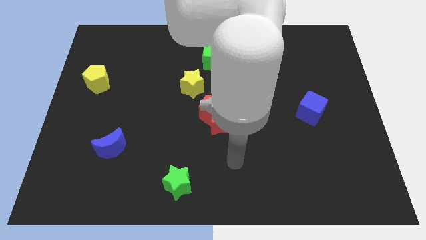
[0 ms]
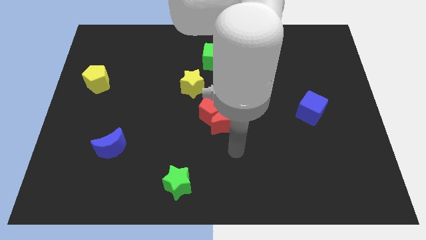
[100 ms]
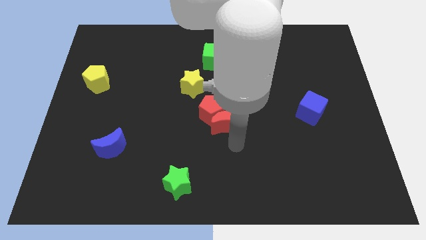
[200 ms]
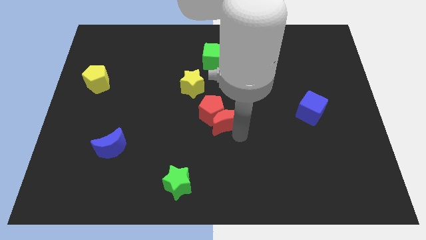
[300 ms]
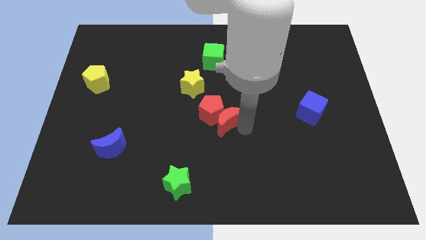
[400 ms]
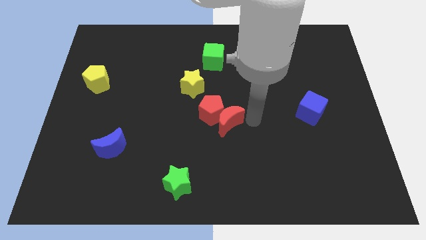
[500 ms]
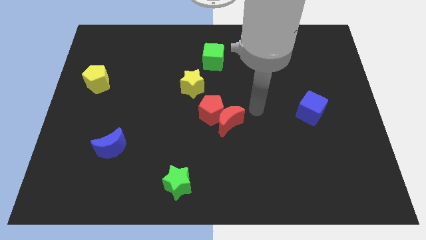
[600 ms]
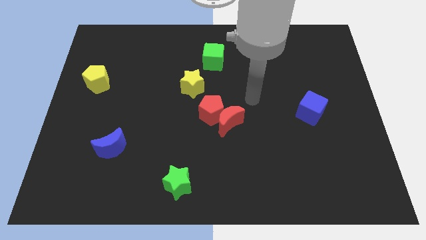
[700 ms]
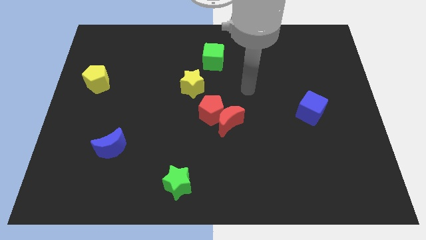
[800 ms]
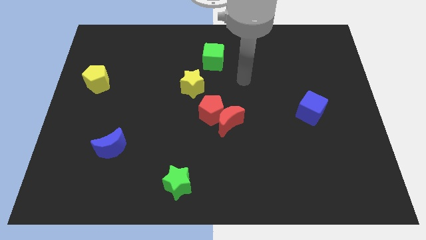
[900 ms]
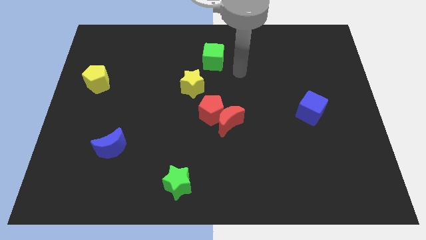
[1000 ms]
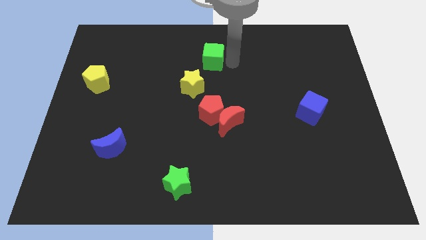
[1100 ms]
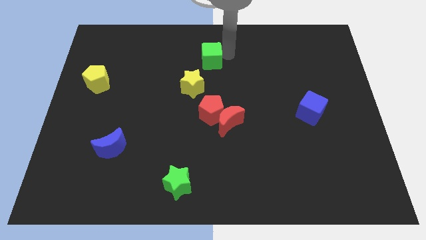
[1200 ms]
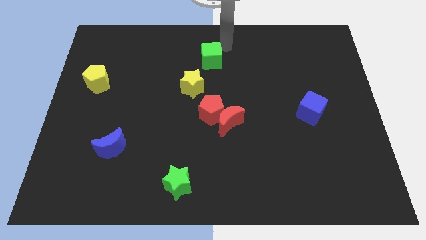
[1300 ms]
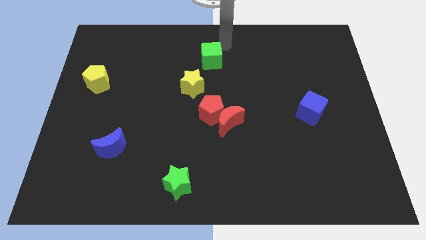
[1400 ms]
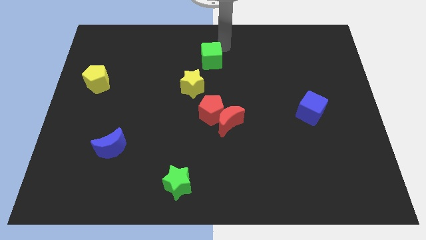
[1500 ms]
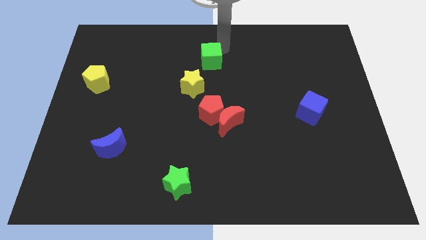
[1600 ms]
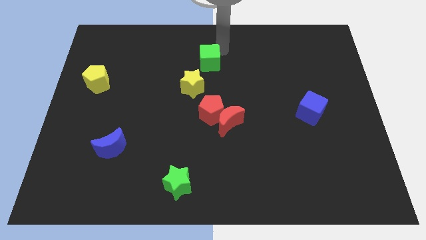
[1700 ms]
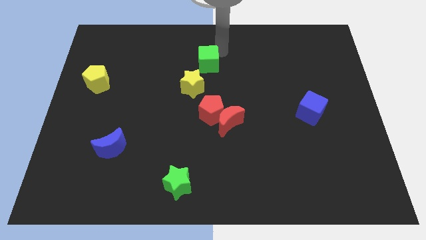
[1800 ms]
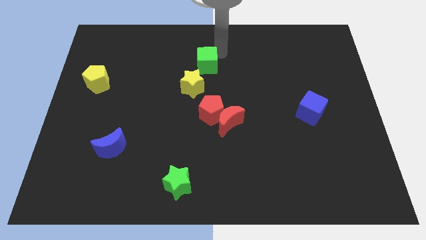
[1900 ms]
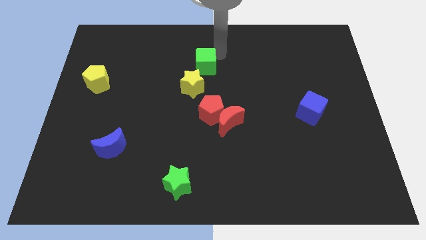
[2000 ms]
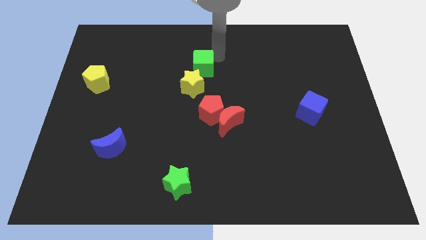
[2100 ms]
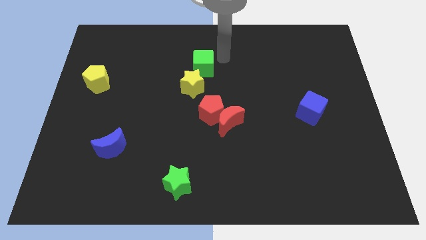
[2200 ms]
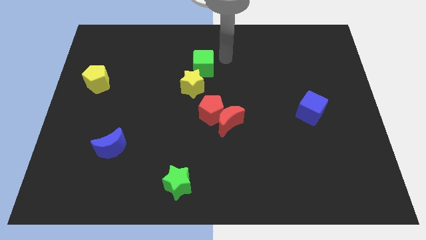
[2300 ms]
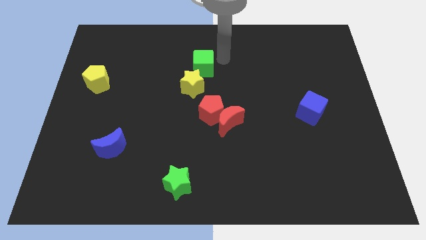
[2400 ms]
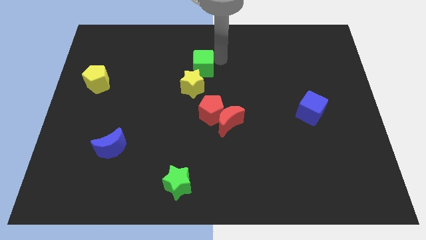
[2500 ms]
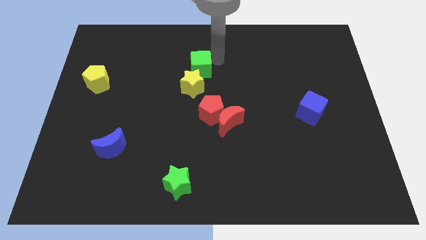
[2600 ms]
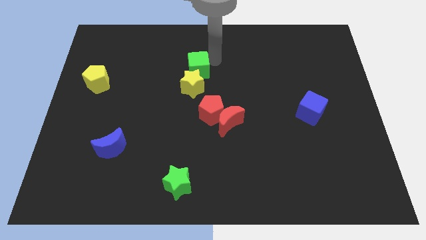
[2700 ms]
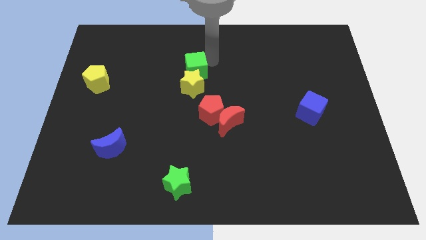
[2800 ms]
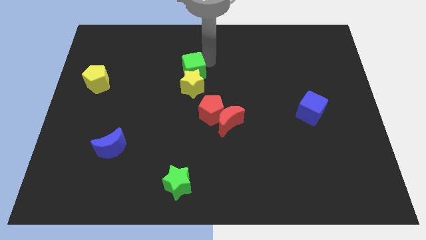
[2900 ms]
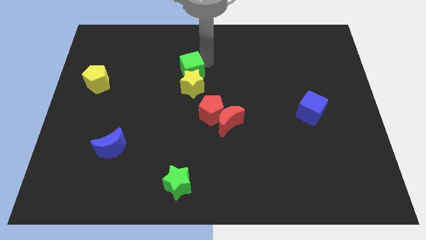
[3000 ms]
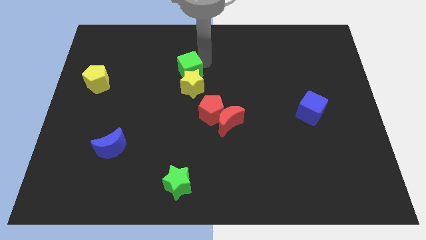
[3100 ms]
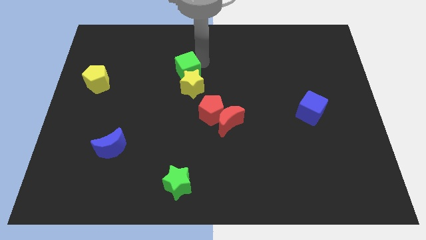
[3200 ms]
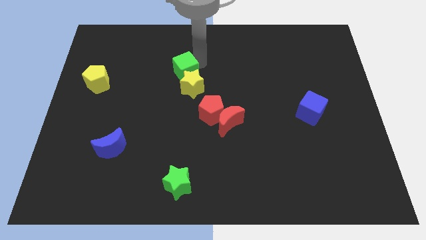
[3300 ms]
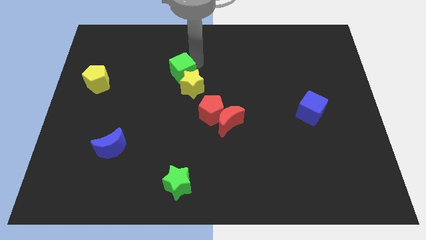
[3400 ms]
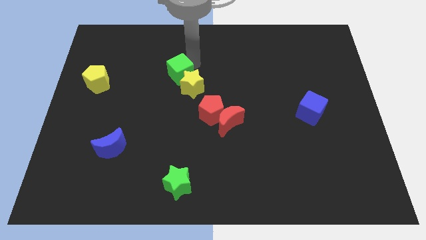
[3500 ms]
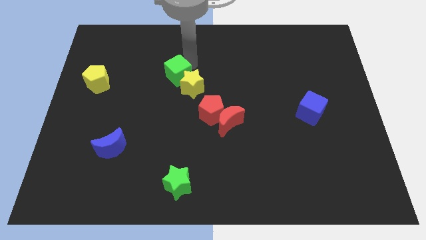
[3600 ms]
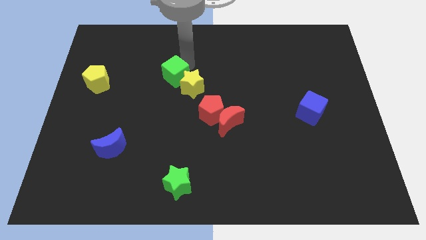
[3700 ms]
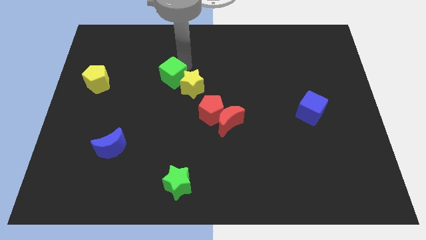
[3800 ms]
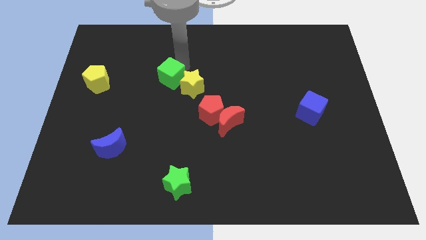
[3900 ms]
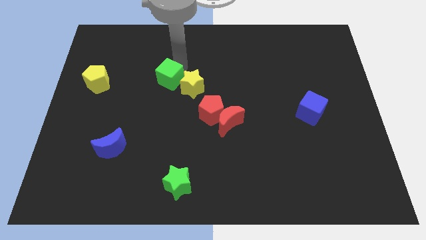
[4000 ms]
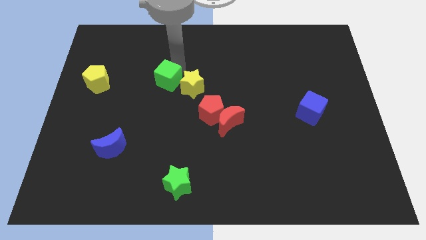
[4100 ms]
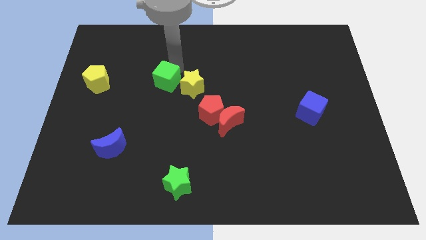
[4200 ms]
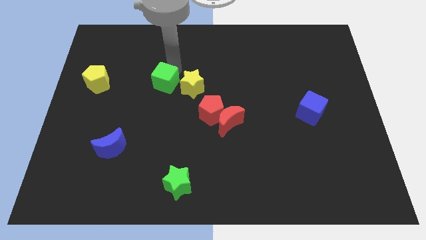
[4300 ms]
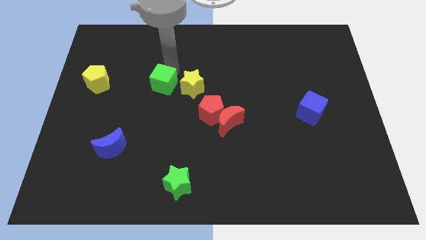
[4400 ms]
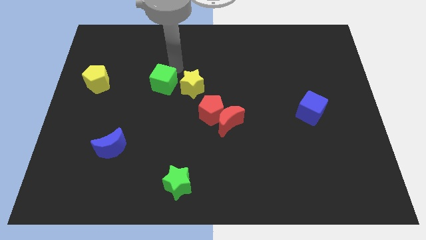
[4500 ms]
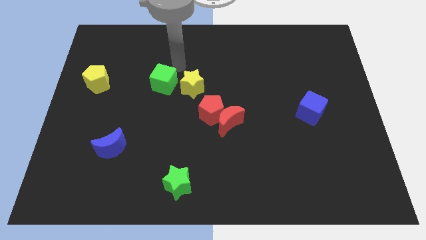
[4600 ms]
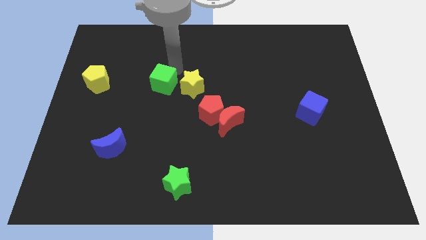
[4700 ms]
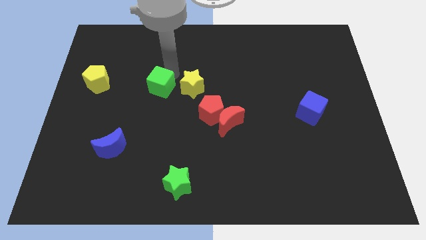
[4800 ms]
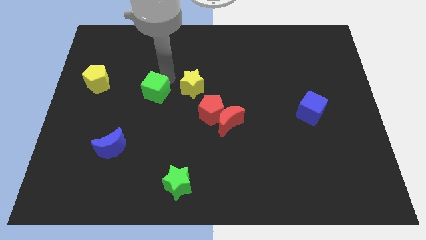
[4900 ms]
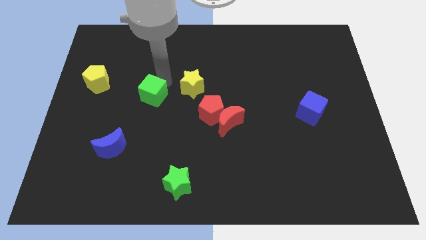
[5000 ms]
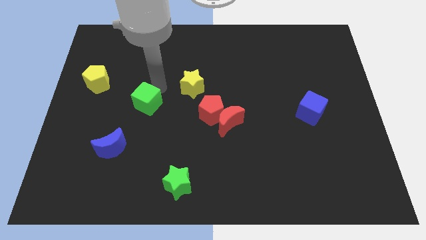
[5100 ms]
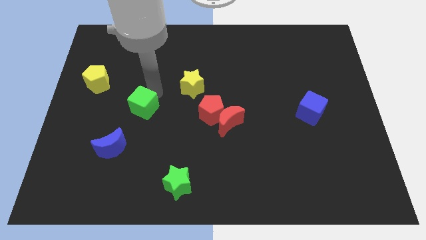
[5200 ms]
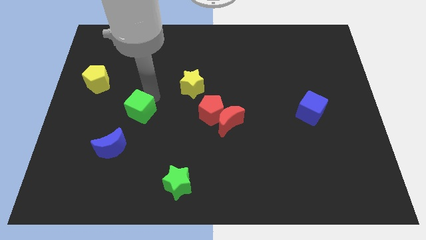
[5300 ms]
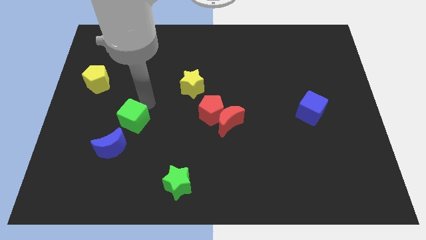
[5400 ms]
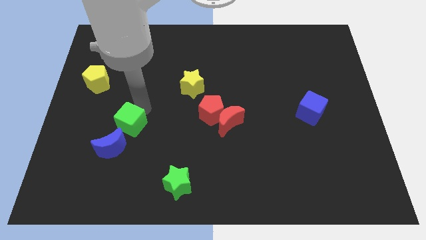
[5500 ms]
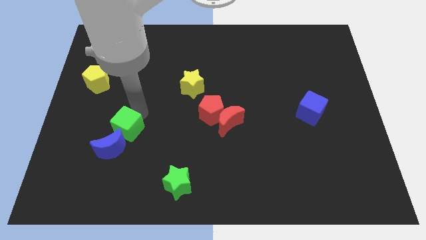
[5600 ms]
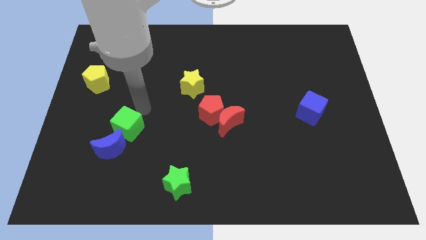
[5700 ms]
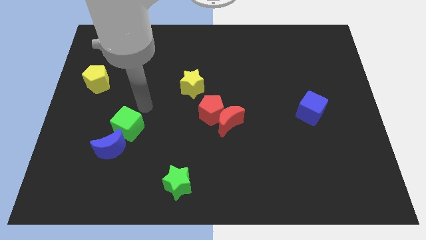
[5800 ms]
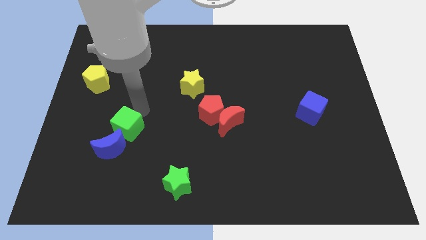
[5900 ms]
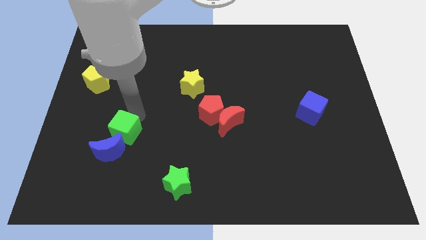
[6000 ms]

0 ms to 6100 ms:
slide the green cube to the blue moon

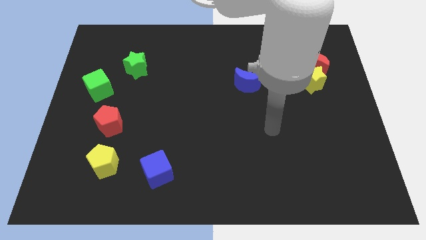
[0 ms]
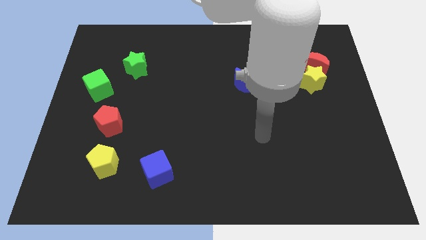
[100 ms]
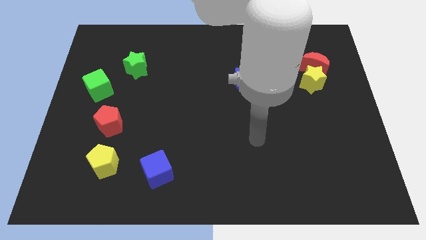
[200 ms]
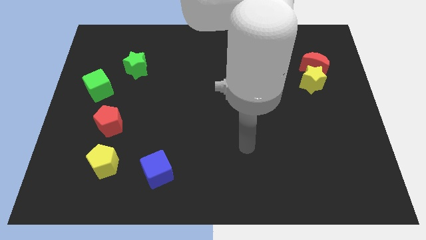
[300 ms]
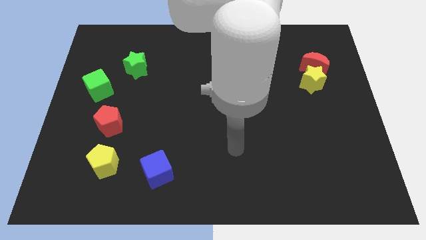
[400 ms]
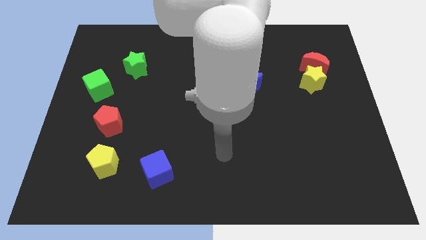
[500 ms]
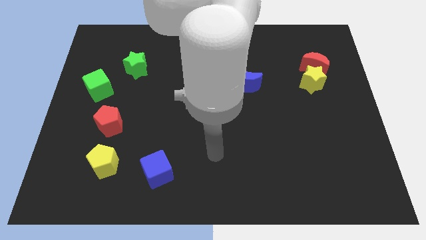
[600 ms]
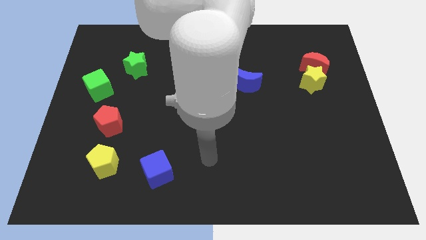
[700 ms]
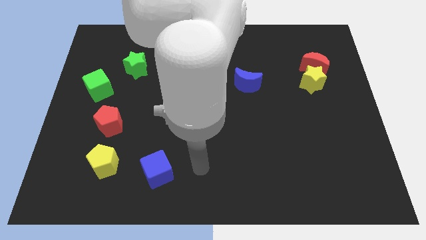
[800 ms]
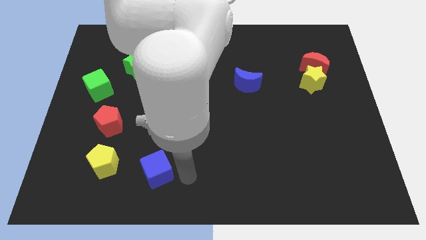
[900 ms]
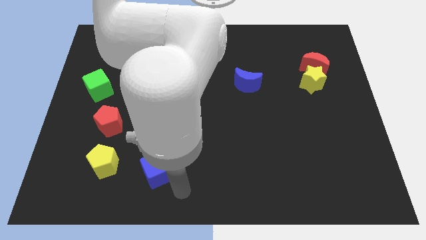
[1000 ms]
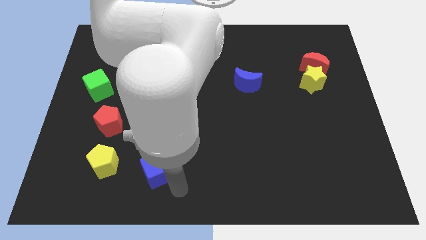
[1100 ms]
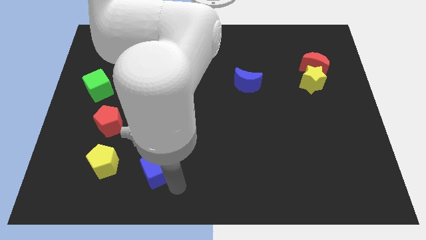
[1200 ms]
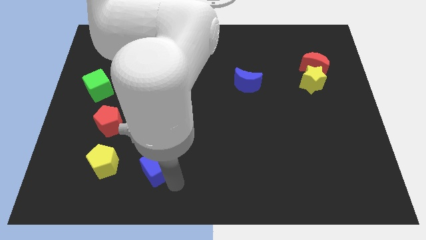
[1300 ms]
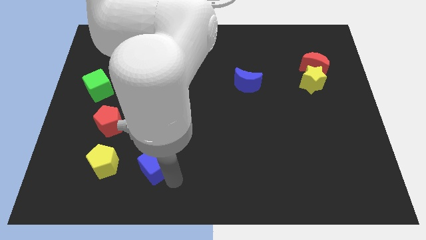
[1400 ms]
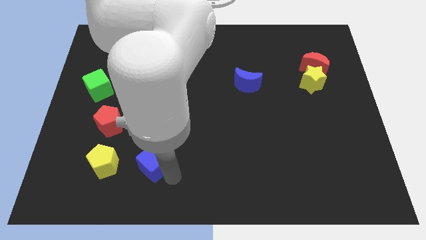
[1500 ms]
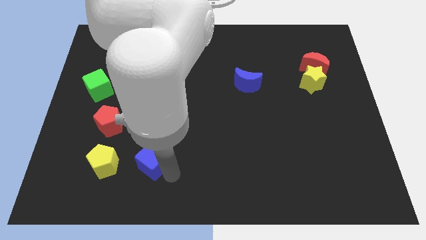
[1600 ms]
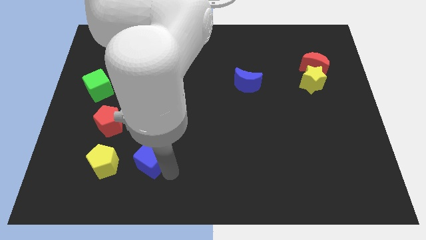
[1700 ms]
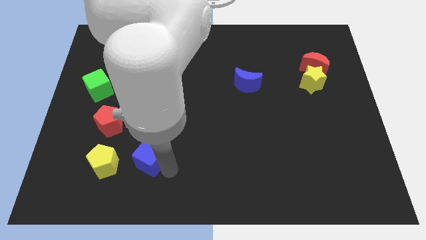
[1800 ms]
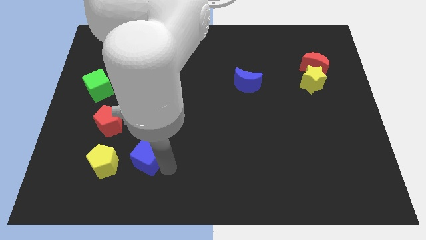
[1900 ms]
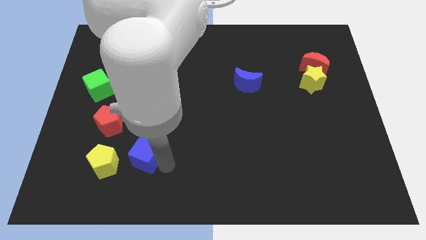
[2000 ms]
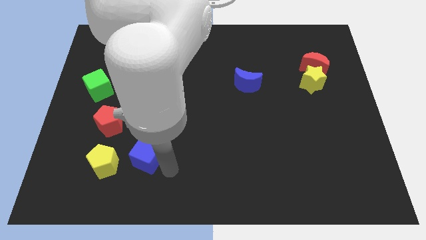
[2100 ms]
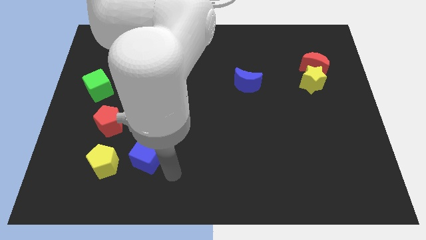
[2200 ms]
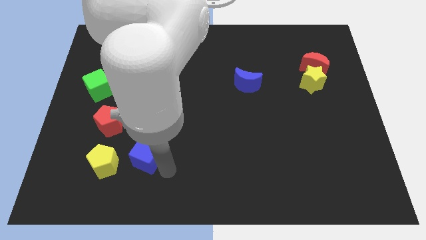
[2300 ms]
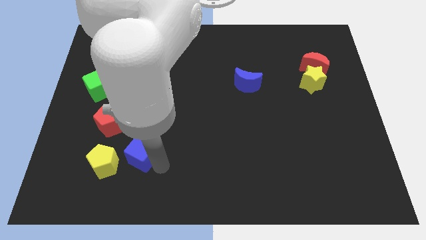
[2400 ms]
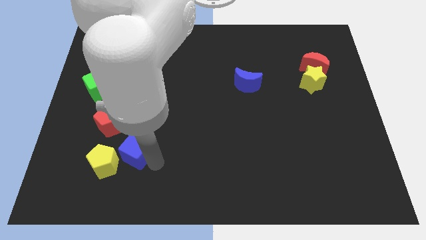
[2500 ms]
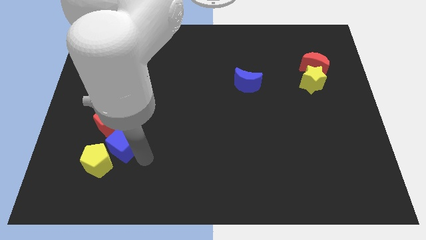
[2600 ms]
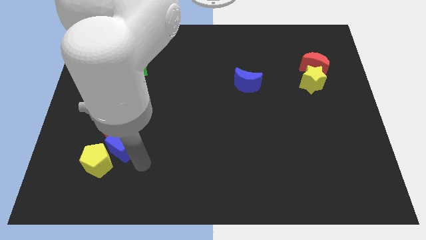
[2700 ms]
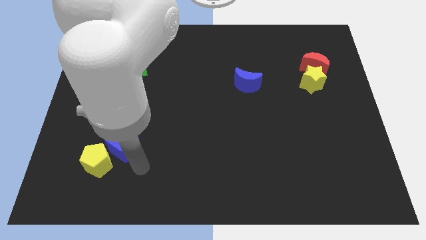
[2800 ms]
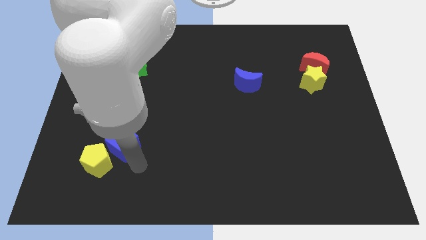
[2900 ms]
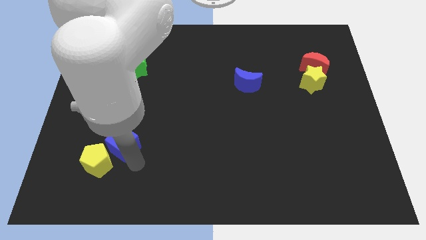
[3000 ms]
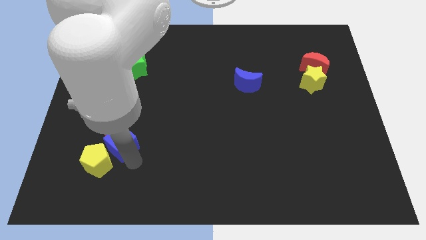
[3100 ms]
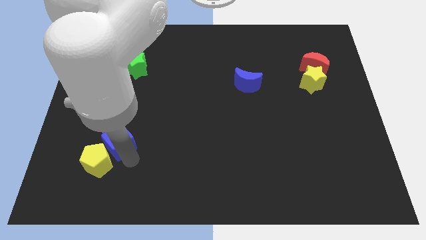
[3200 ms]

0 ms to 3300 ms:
push the blue cube towards the red pentagon
